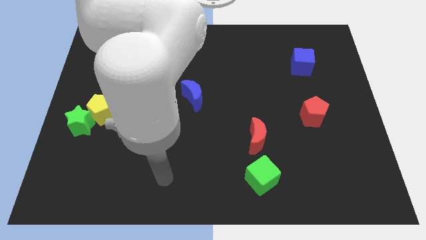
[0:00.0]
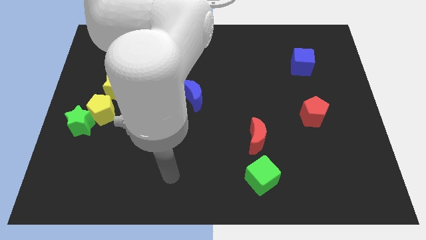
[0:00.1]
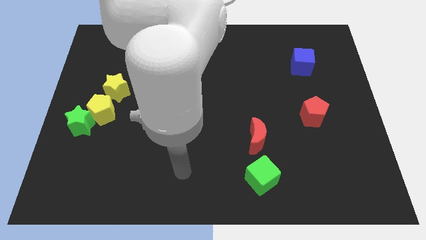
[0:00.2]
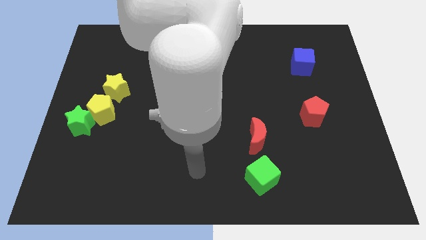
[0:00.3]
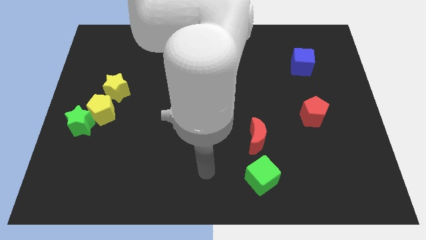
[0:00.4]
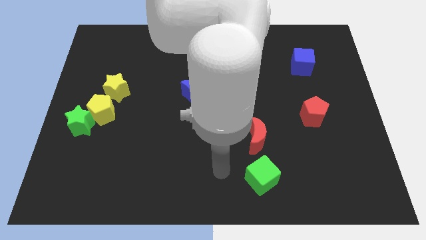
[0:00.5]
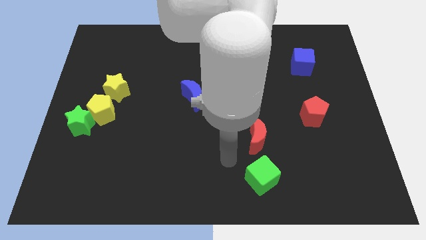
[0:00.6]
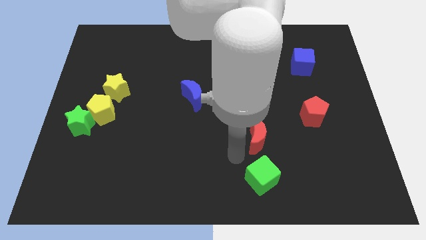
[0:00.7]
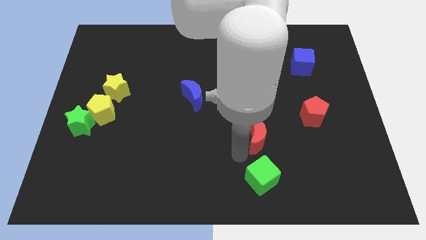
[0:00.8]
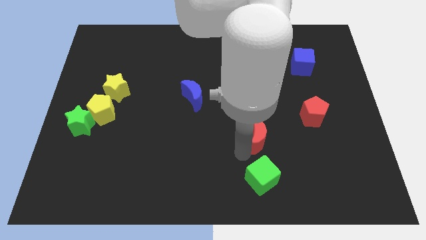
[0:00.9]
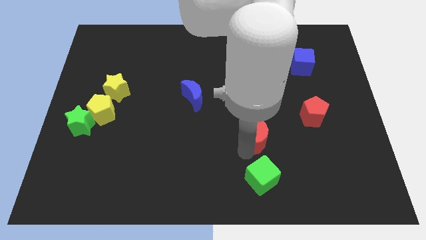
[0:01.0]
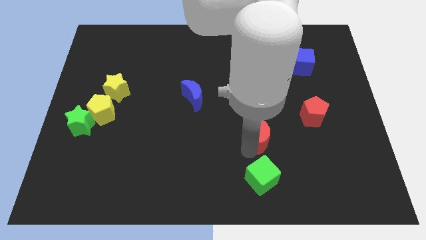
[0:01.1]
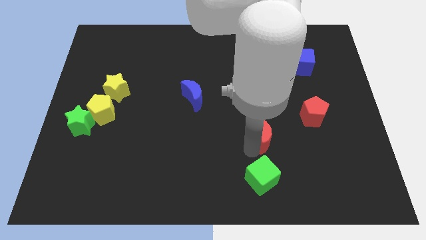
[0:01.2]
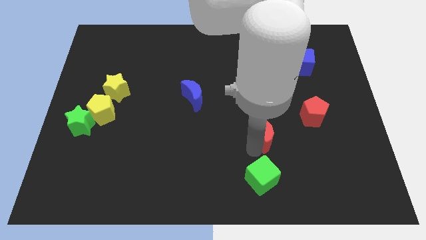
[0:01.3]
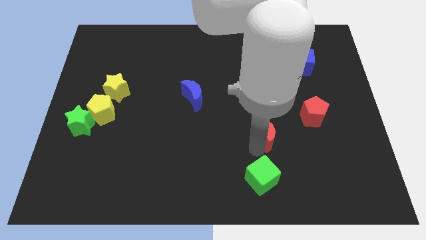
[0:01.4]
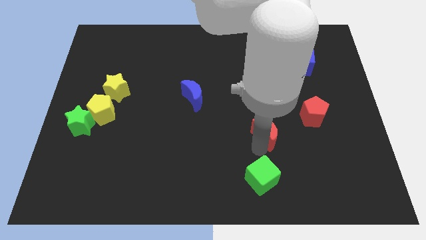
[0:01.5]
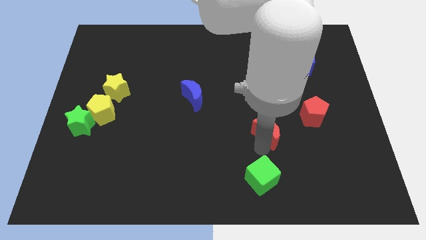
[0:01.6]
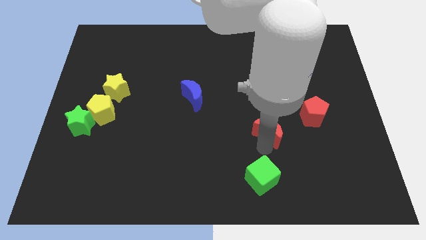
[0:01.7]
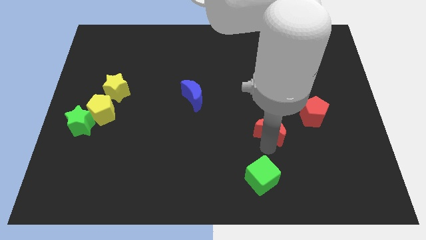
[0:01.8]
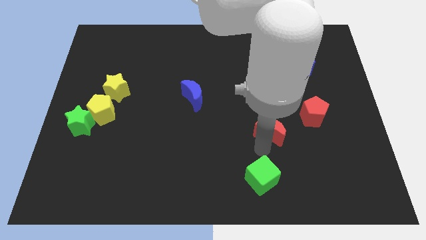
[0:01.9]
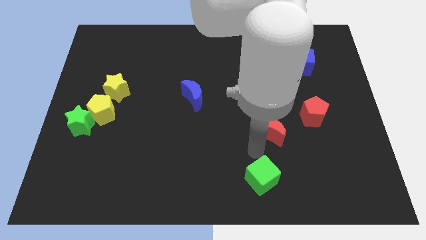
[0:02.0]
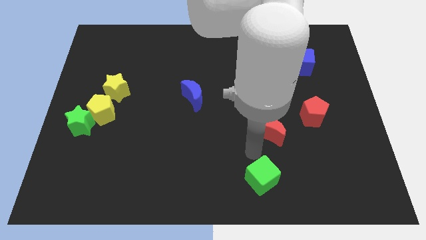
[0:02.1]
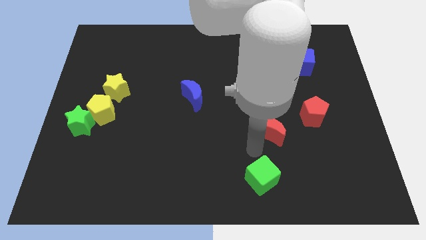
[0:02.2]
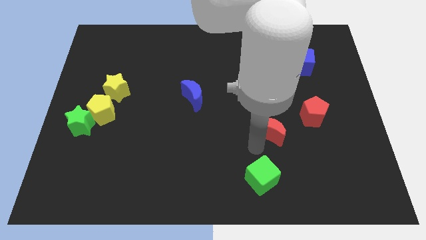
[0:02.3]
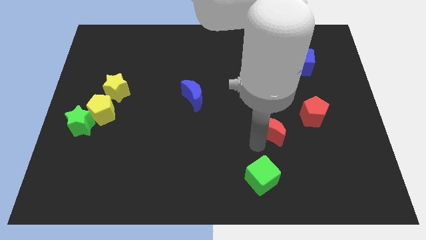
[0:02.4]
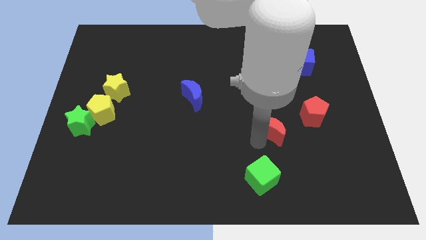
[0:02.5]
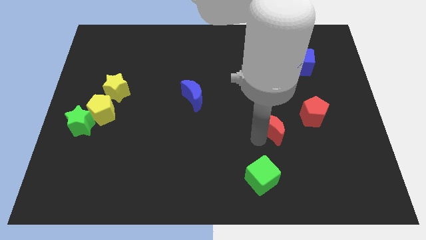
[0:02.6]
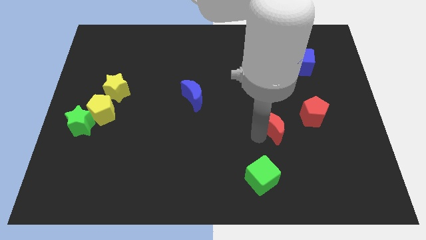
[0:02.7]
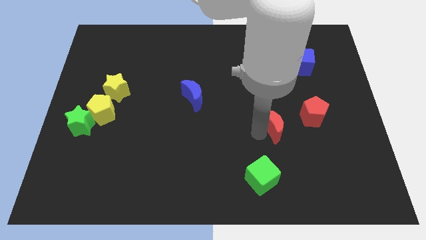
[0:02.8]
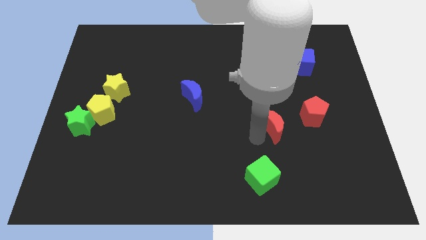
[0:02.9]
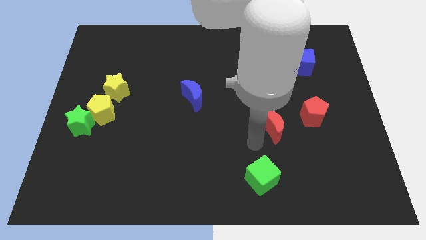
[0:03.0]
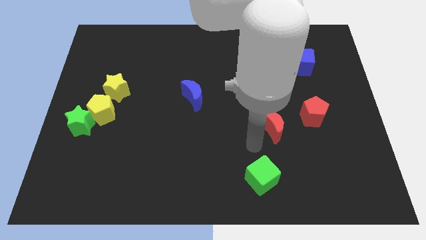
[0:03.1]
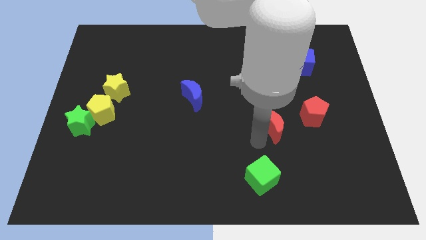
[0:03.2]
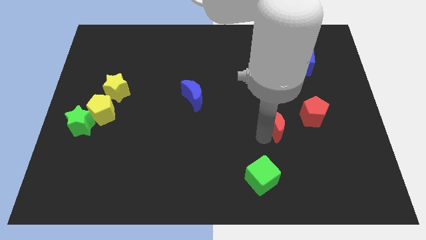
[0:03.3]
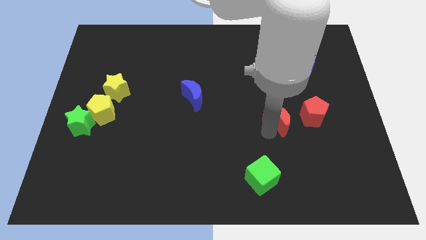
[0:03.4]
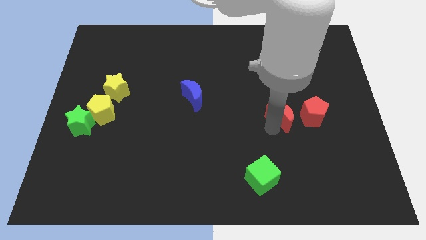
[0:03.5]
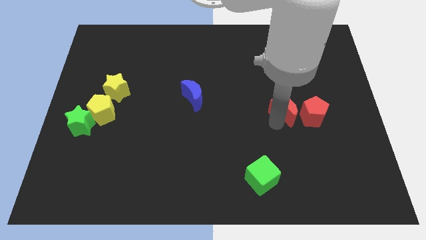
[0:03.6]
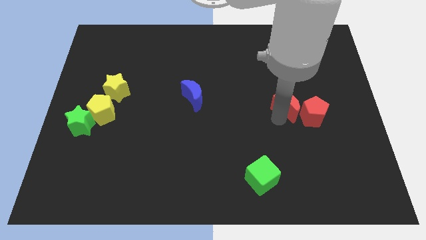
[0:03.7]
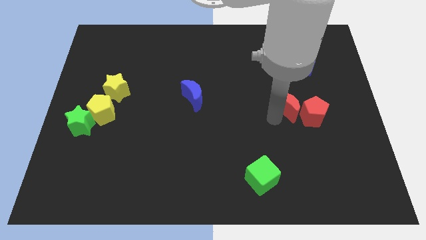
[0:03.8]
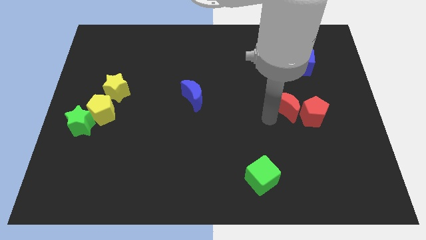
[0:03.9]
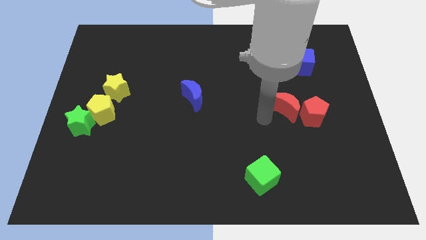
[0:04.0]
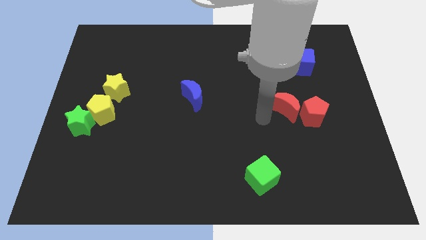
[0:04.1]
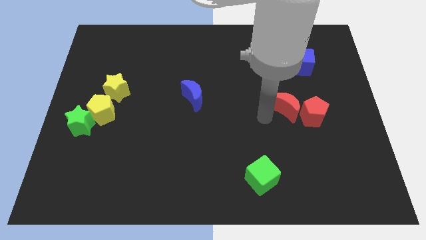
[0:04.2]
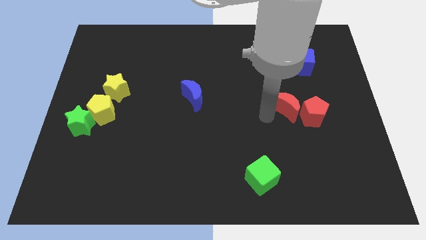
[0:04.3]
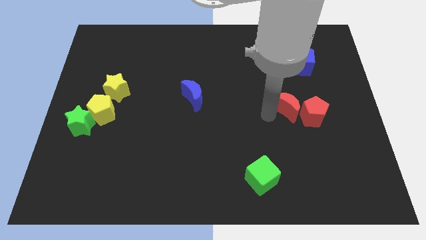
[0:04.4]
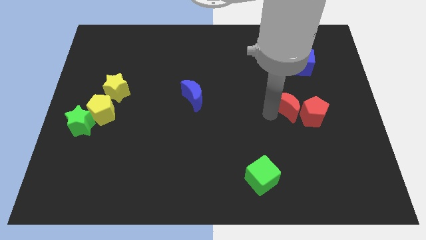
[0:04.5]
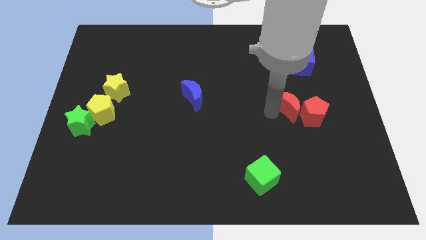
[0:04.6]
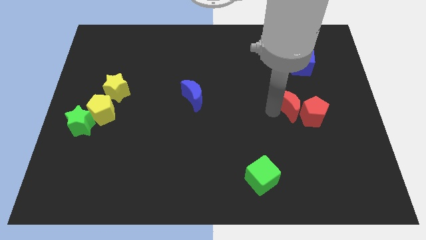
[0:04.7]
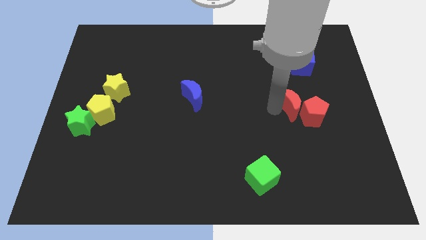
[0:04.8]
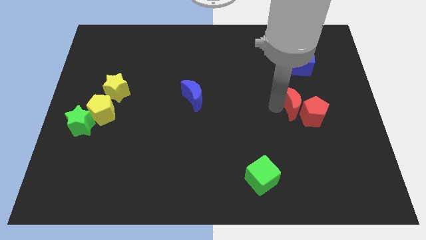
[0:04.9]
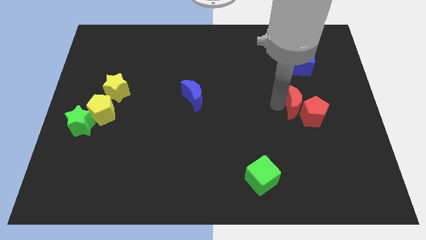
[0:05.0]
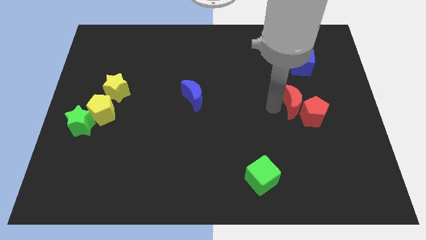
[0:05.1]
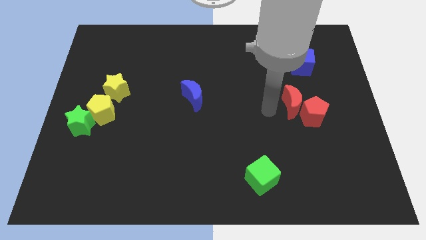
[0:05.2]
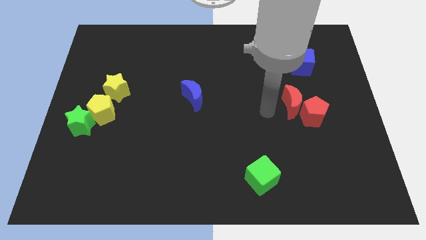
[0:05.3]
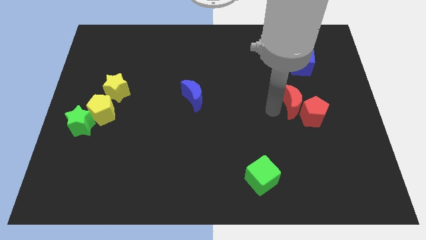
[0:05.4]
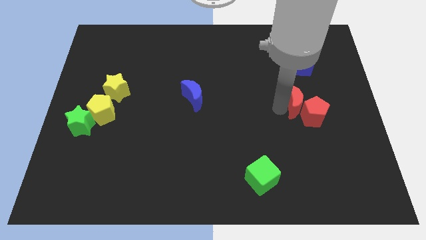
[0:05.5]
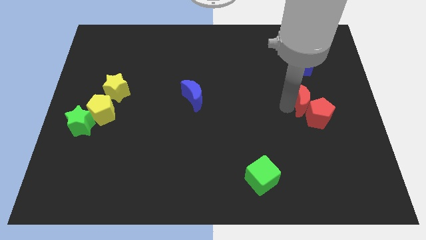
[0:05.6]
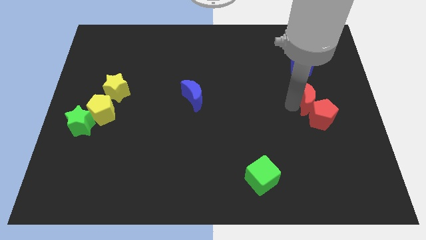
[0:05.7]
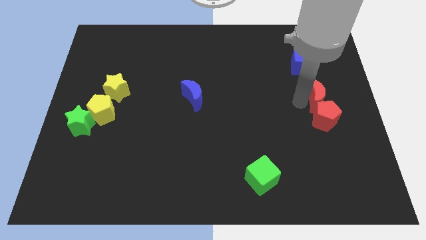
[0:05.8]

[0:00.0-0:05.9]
push the red moon diagonally up and to the right of the red pentagon

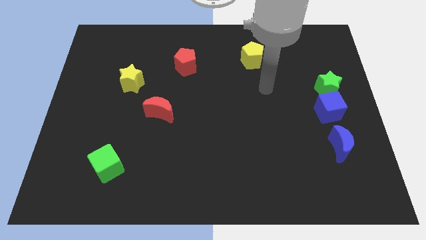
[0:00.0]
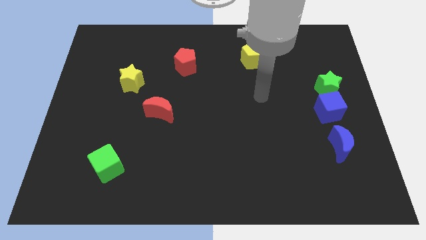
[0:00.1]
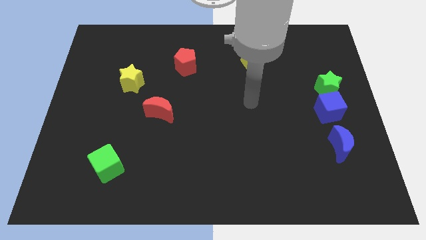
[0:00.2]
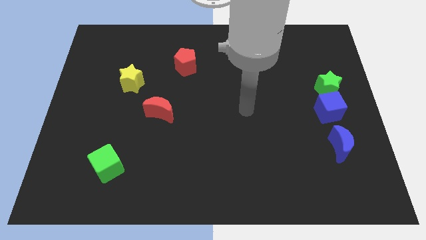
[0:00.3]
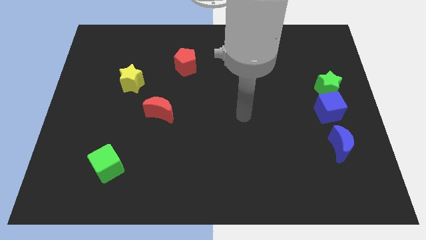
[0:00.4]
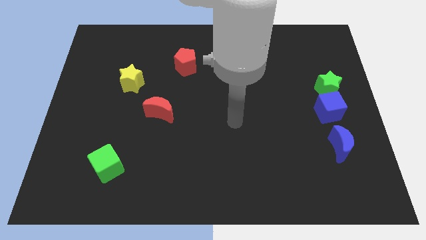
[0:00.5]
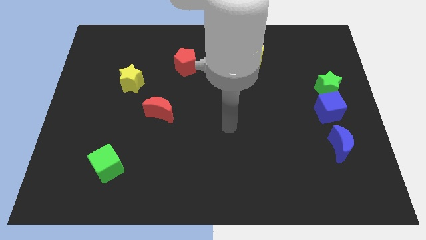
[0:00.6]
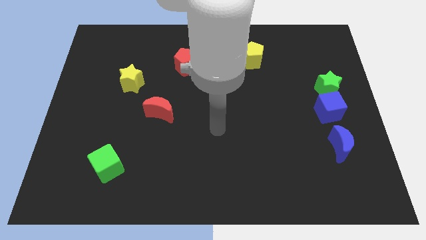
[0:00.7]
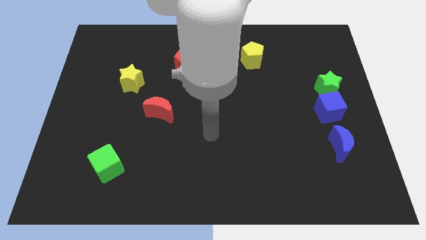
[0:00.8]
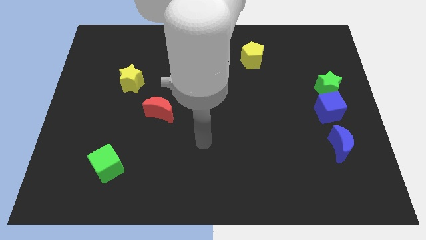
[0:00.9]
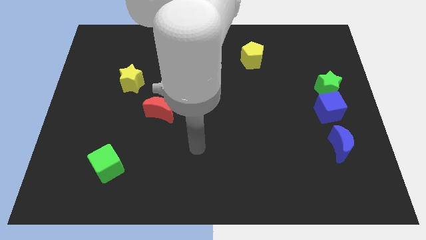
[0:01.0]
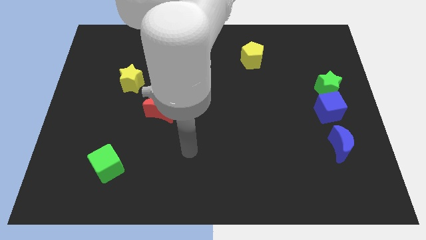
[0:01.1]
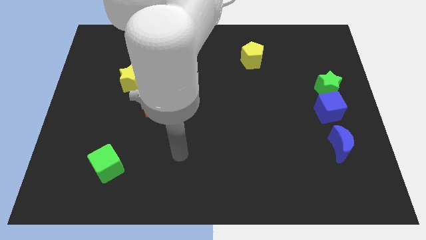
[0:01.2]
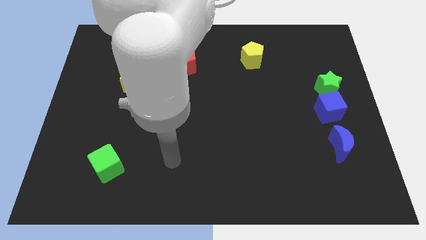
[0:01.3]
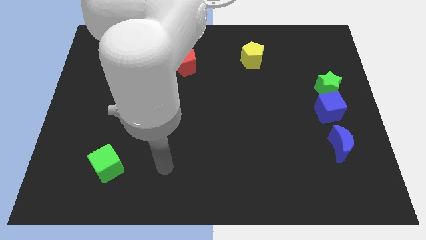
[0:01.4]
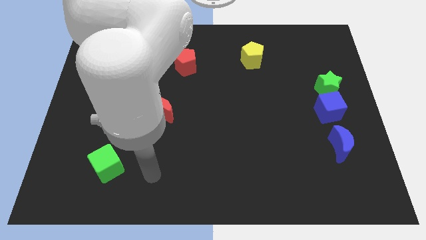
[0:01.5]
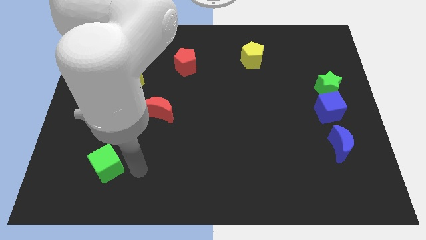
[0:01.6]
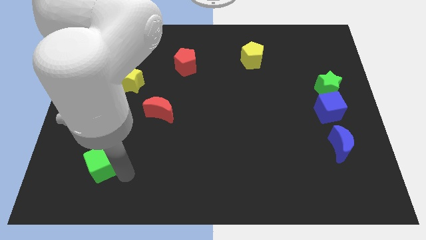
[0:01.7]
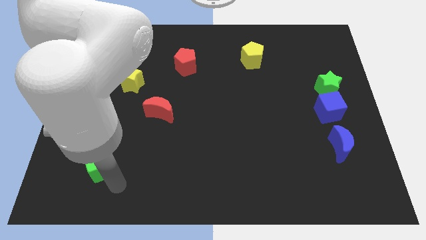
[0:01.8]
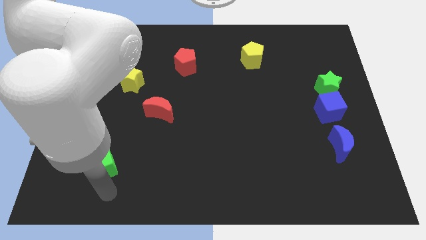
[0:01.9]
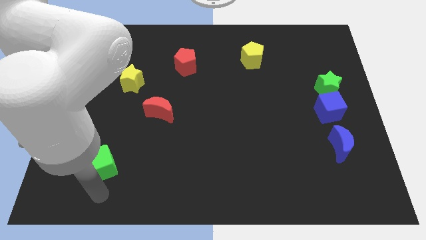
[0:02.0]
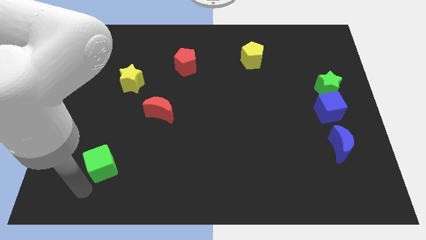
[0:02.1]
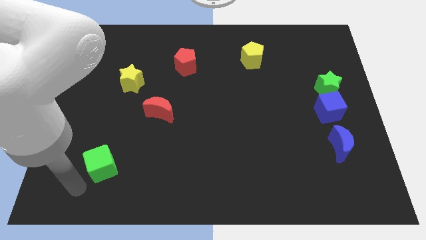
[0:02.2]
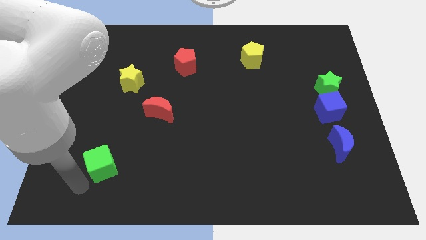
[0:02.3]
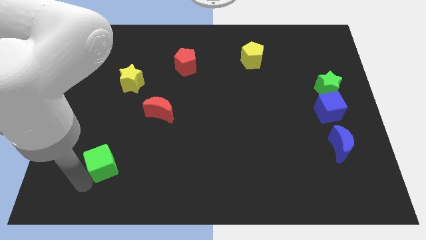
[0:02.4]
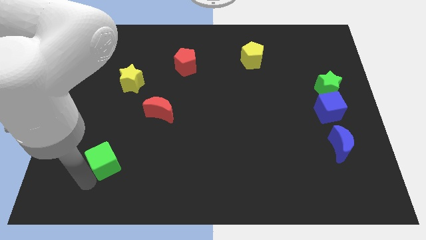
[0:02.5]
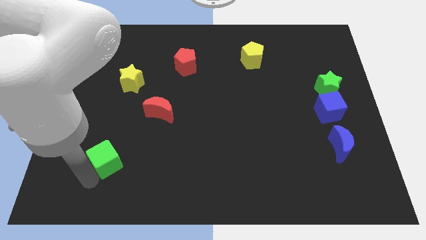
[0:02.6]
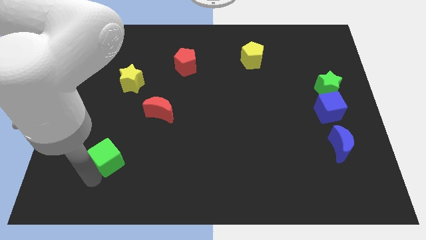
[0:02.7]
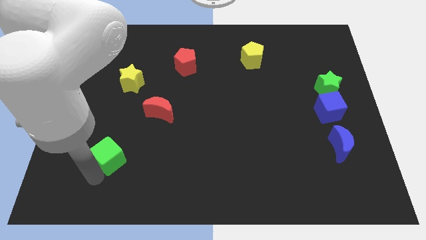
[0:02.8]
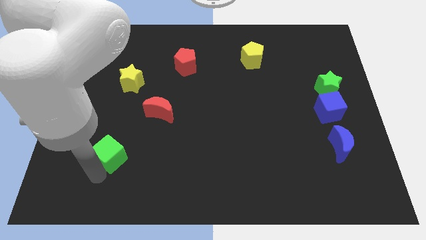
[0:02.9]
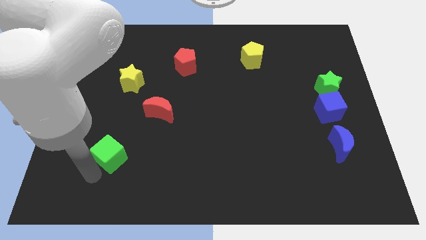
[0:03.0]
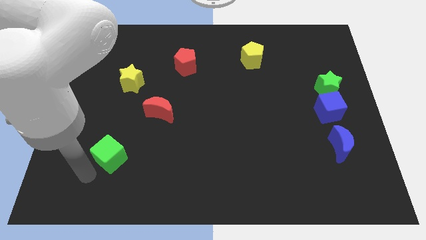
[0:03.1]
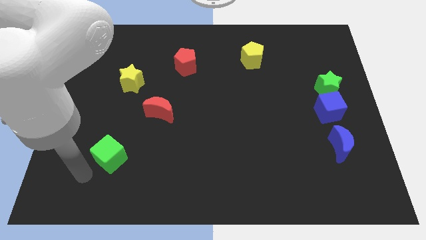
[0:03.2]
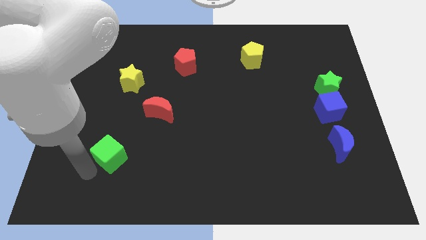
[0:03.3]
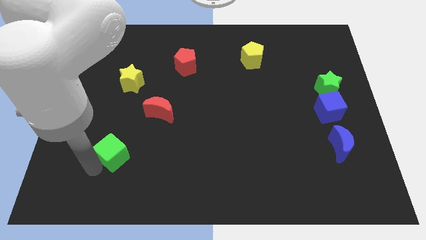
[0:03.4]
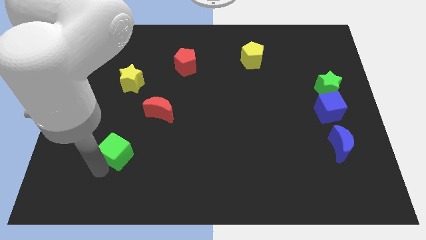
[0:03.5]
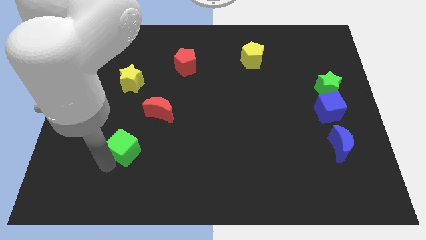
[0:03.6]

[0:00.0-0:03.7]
push the green cube to the bottom left side of the red moon
